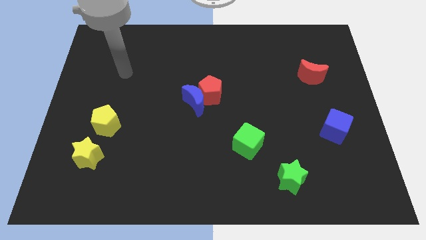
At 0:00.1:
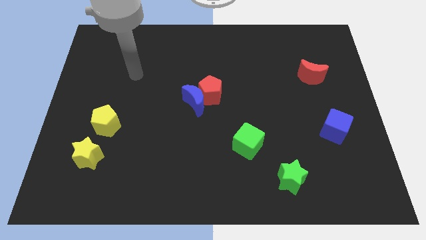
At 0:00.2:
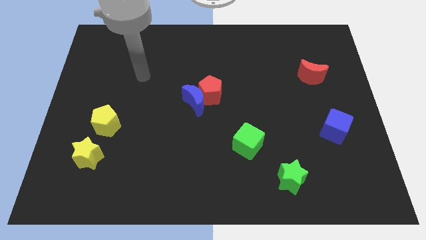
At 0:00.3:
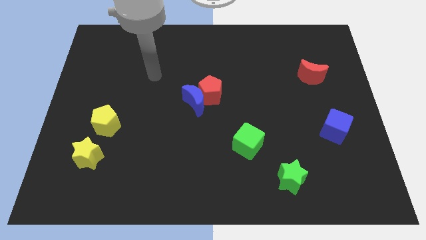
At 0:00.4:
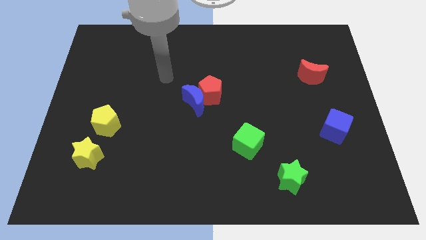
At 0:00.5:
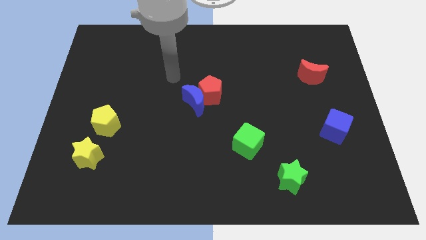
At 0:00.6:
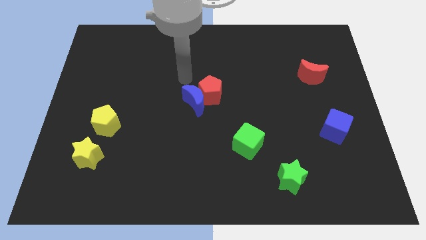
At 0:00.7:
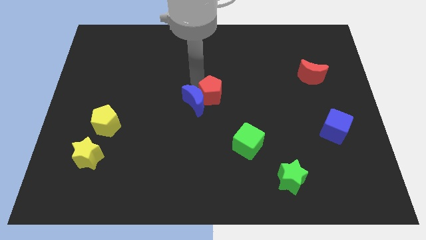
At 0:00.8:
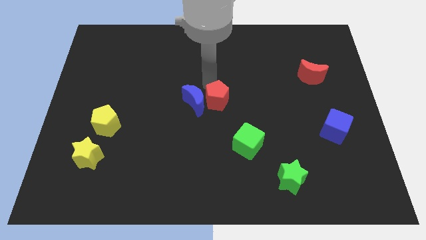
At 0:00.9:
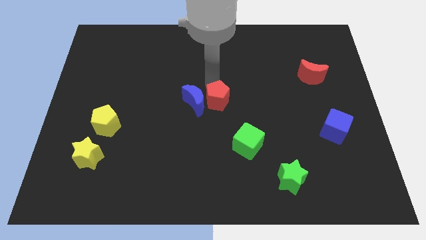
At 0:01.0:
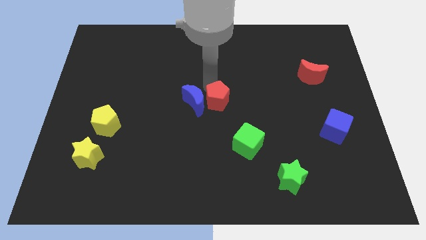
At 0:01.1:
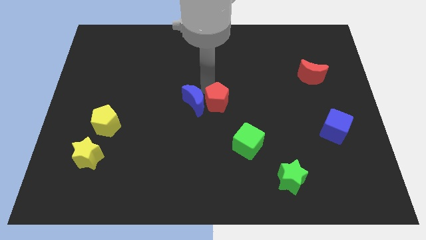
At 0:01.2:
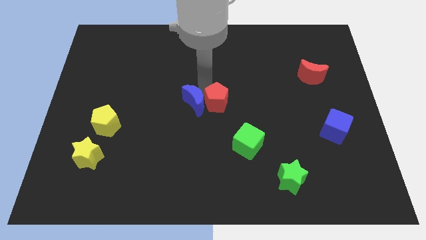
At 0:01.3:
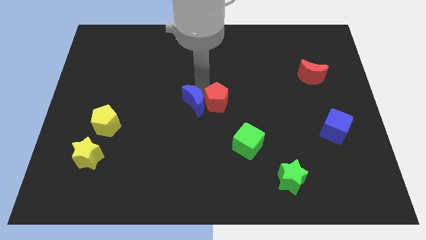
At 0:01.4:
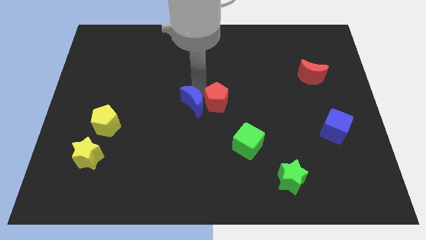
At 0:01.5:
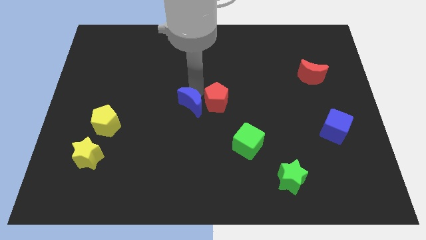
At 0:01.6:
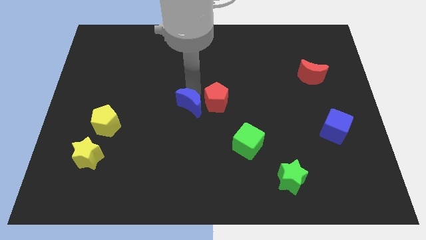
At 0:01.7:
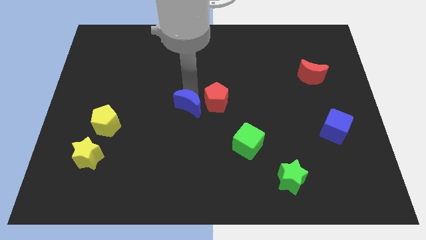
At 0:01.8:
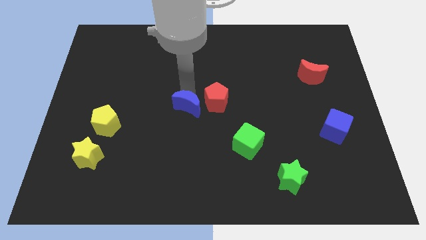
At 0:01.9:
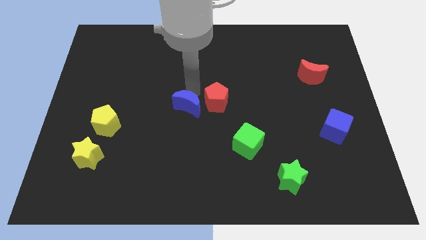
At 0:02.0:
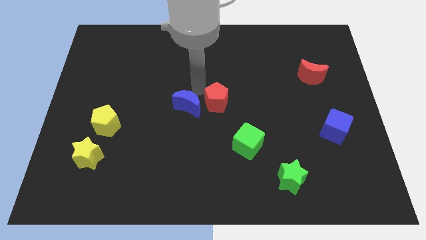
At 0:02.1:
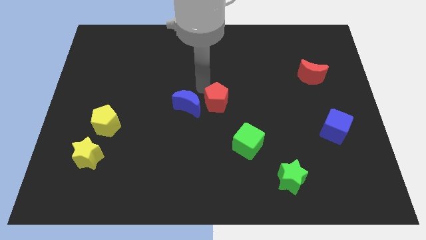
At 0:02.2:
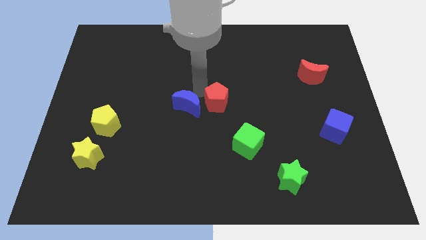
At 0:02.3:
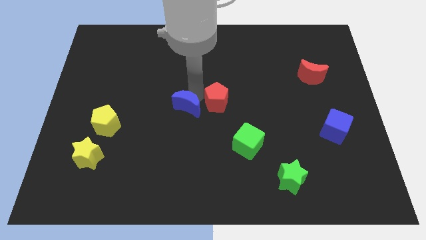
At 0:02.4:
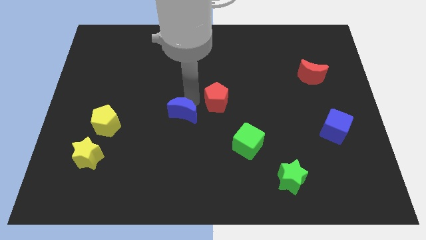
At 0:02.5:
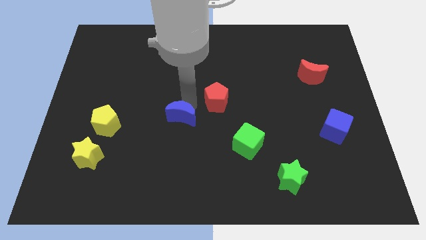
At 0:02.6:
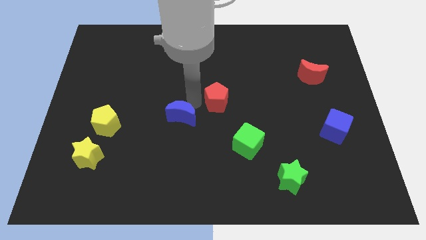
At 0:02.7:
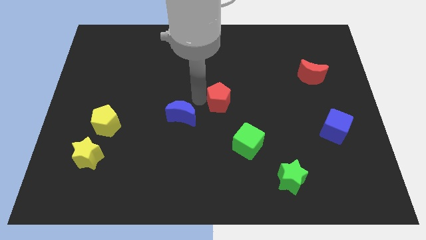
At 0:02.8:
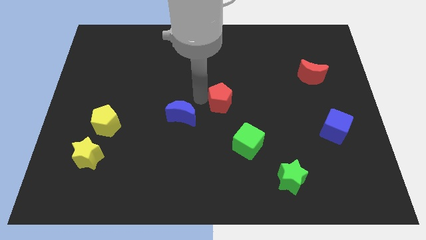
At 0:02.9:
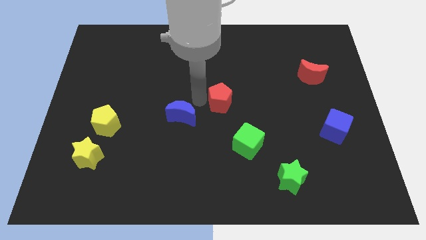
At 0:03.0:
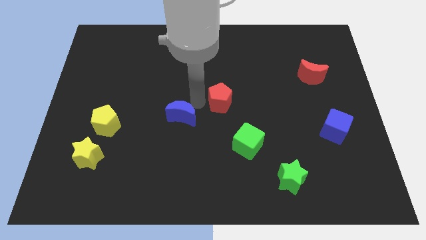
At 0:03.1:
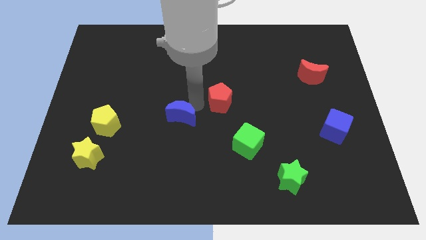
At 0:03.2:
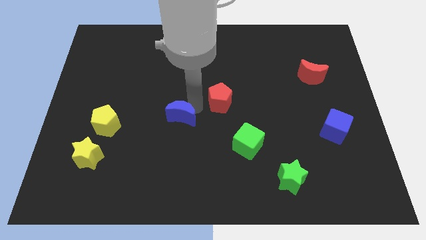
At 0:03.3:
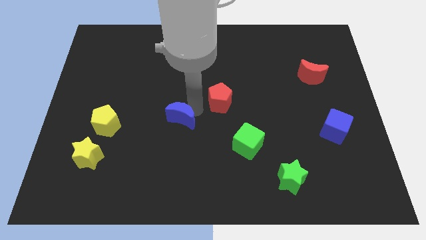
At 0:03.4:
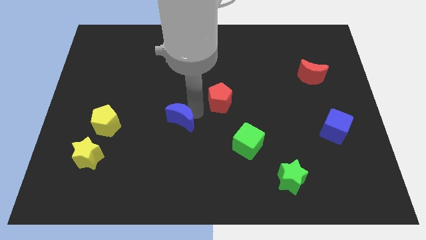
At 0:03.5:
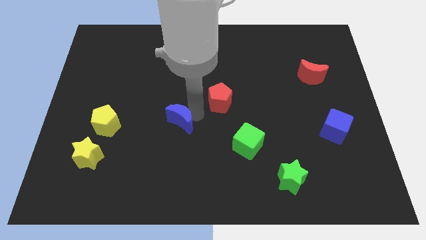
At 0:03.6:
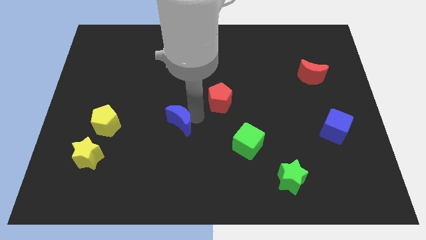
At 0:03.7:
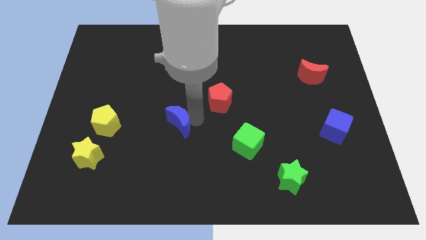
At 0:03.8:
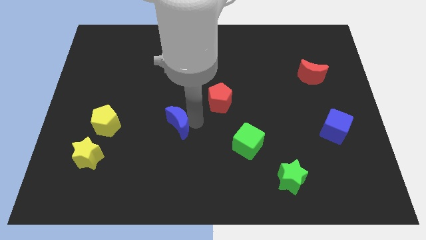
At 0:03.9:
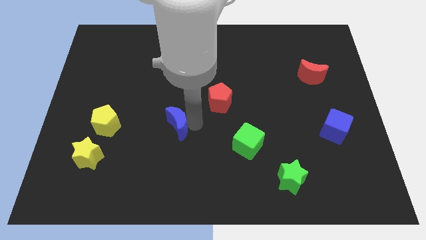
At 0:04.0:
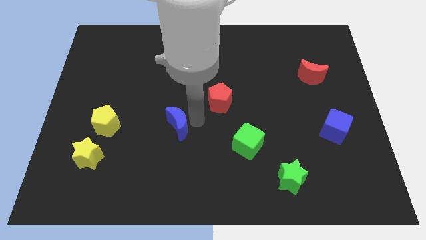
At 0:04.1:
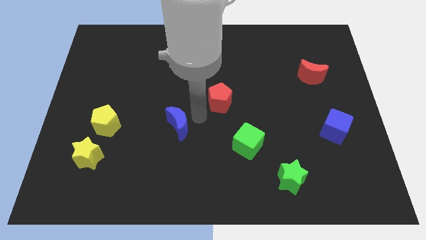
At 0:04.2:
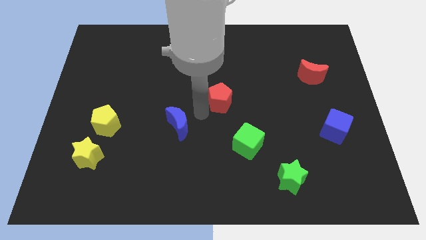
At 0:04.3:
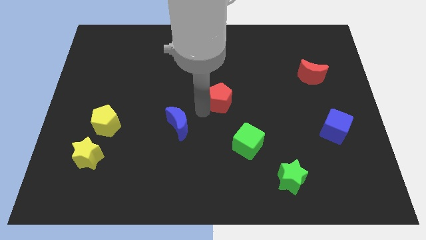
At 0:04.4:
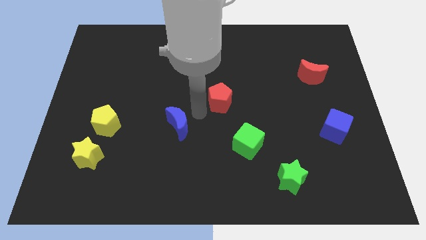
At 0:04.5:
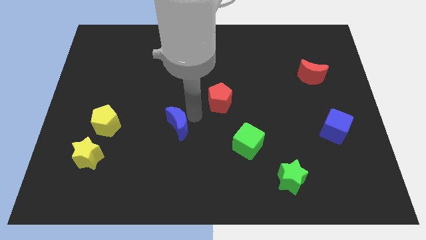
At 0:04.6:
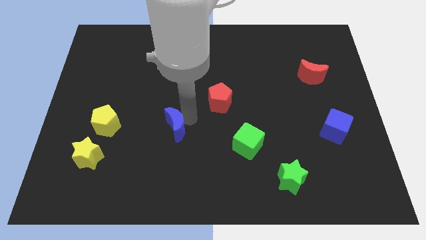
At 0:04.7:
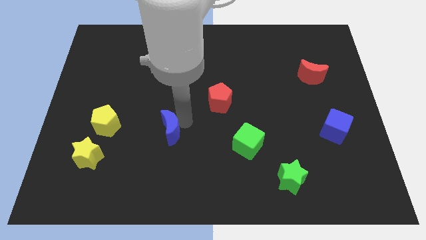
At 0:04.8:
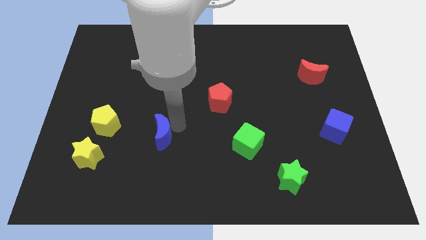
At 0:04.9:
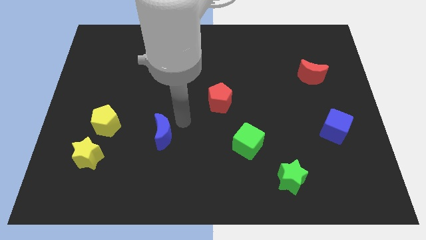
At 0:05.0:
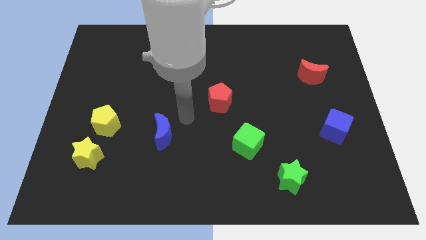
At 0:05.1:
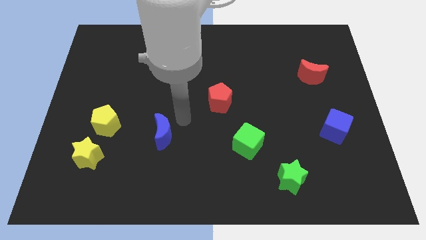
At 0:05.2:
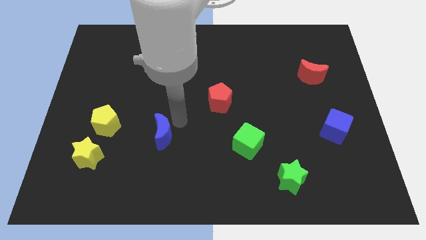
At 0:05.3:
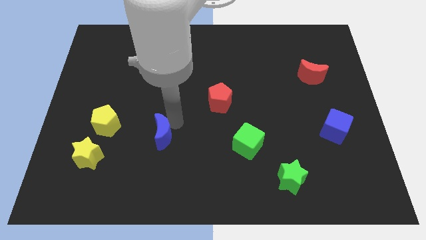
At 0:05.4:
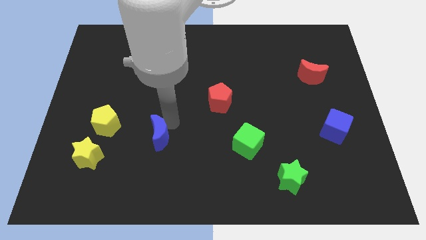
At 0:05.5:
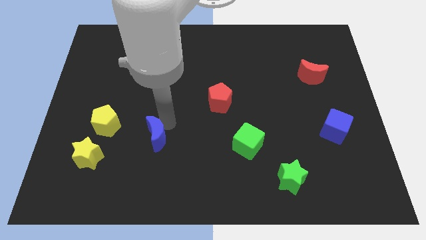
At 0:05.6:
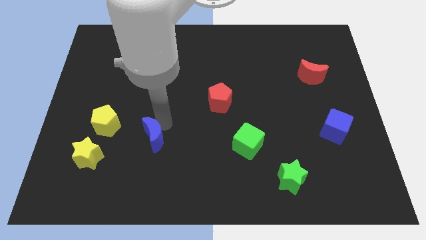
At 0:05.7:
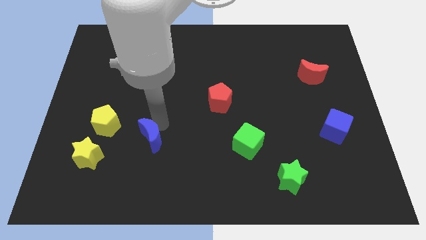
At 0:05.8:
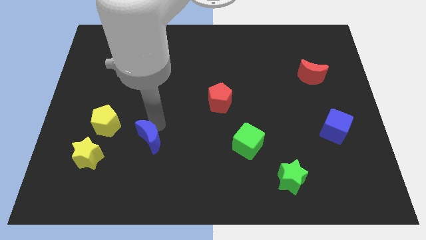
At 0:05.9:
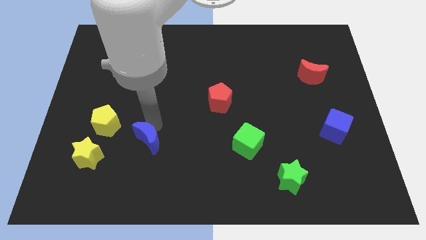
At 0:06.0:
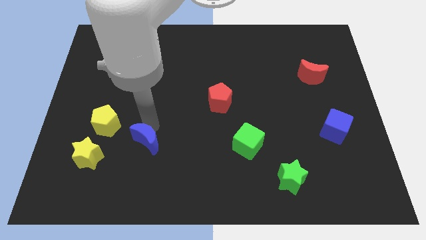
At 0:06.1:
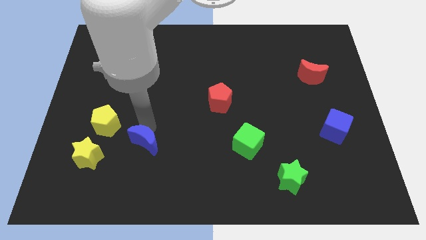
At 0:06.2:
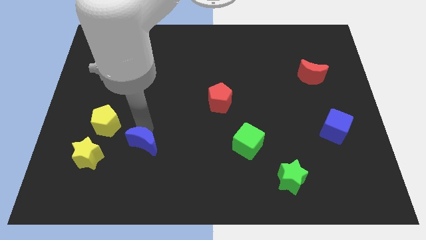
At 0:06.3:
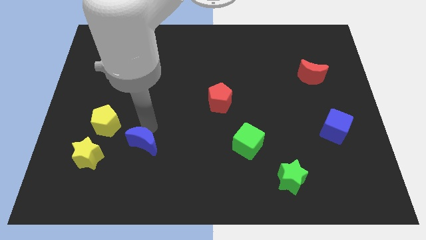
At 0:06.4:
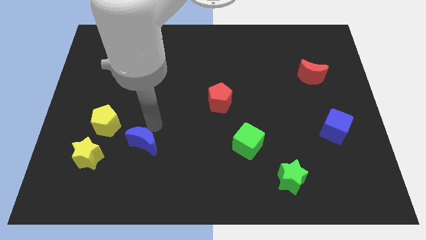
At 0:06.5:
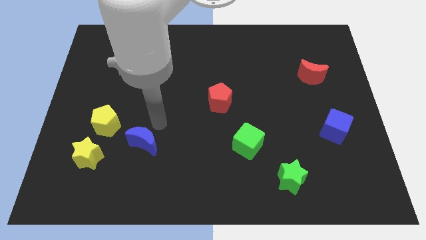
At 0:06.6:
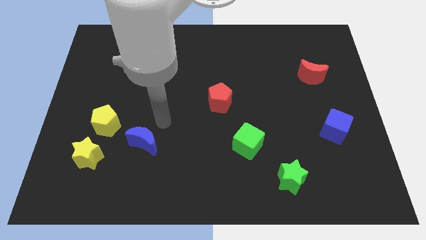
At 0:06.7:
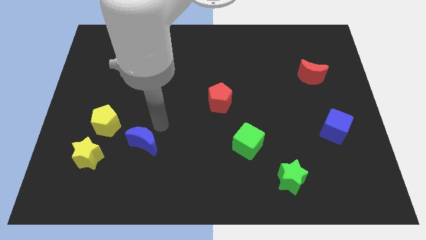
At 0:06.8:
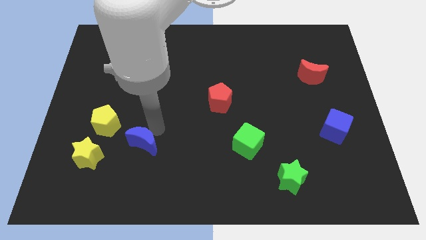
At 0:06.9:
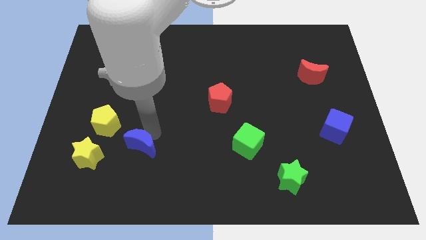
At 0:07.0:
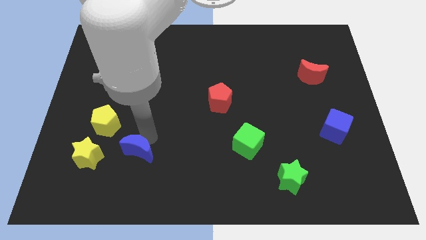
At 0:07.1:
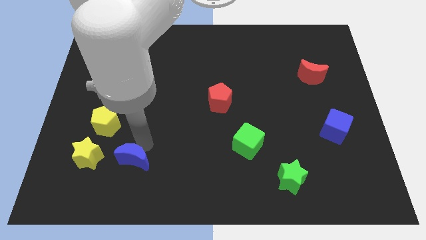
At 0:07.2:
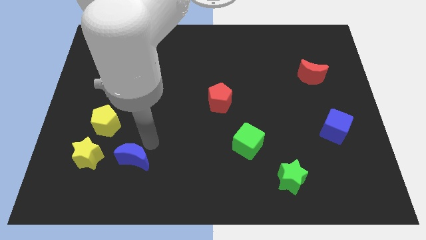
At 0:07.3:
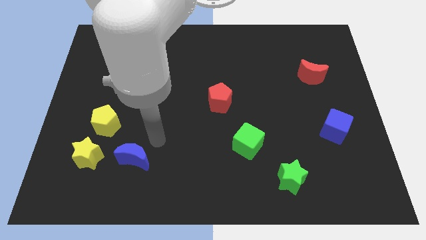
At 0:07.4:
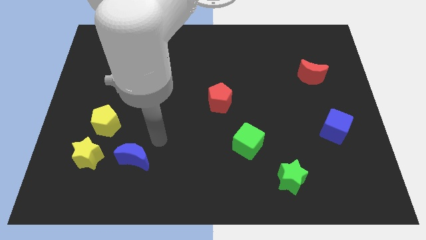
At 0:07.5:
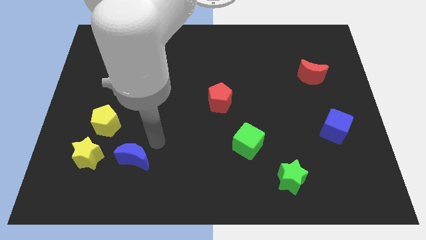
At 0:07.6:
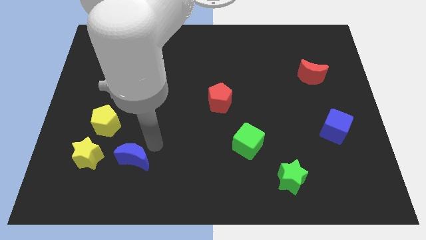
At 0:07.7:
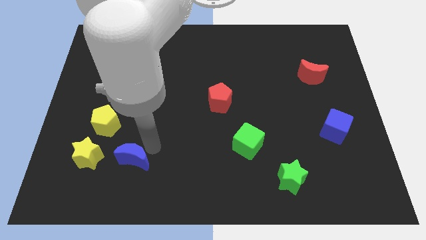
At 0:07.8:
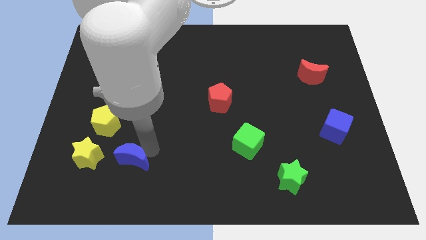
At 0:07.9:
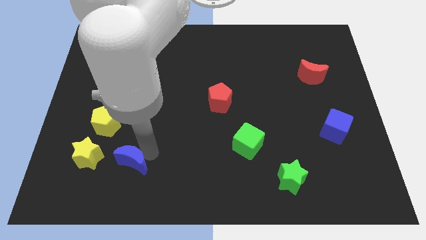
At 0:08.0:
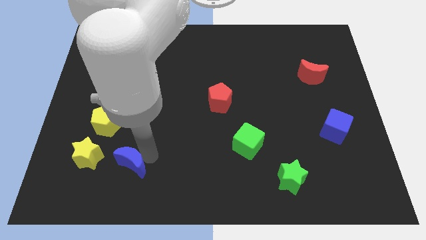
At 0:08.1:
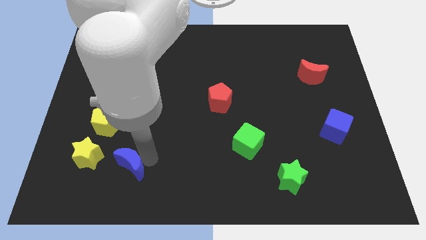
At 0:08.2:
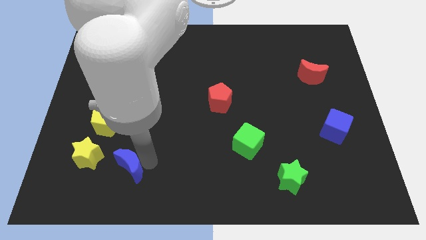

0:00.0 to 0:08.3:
slide the blue moon diagonally down and to the right of the yellow star
